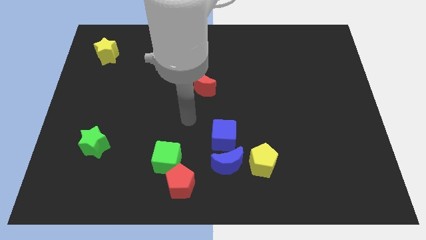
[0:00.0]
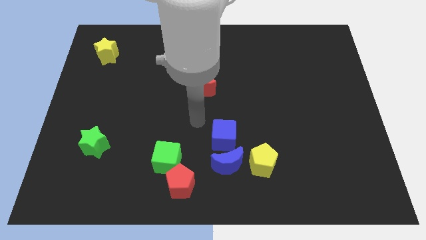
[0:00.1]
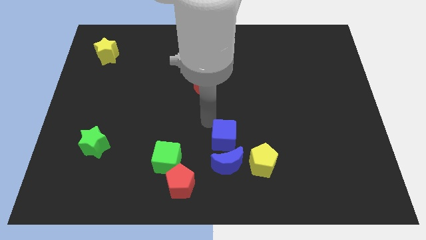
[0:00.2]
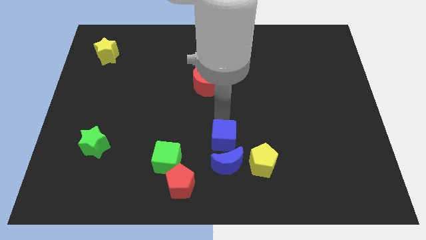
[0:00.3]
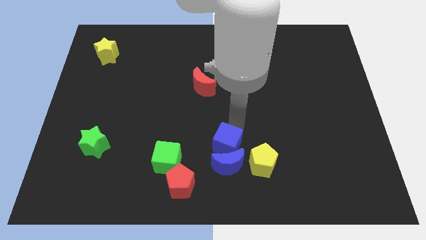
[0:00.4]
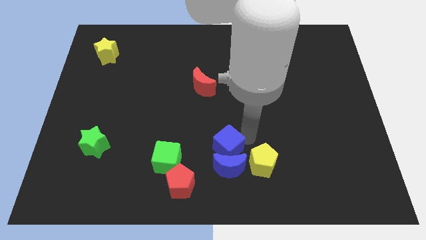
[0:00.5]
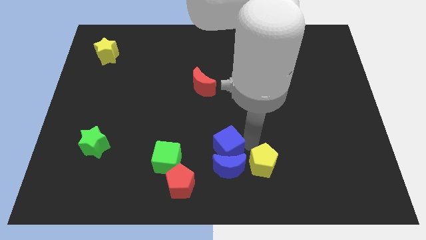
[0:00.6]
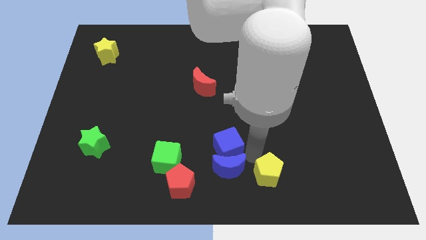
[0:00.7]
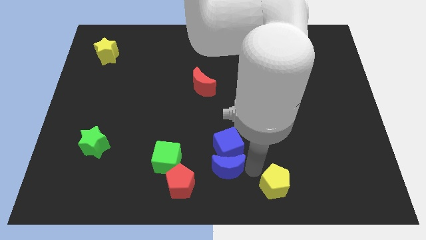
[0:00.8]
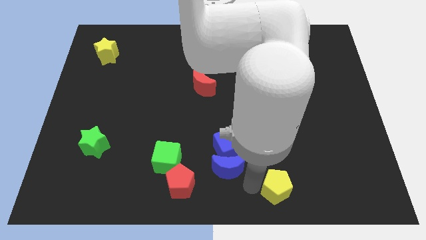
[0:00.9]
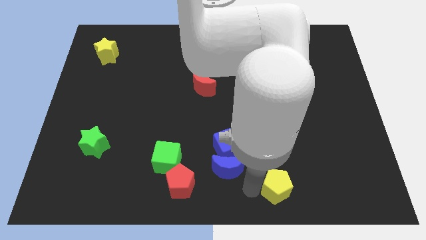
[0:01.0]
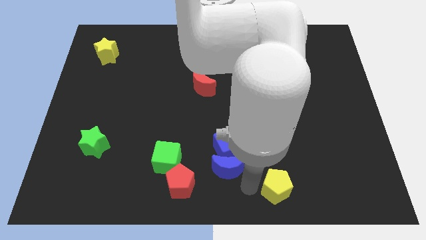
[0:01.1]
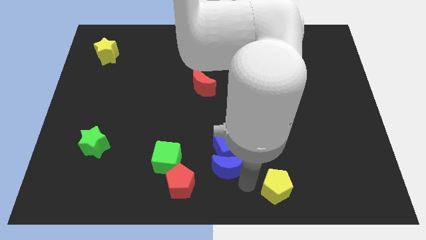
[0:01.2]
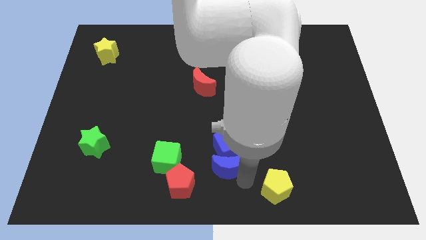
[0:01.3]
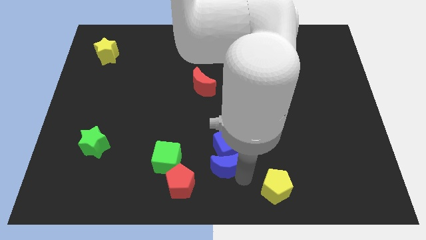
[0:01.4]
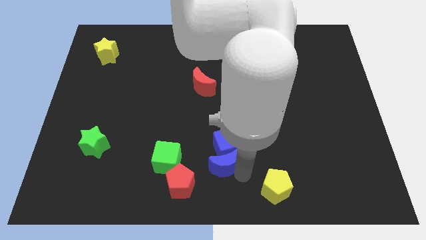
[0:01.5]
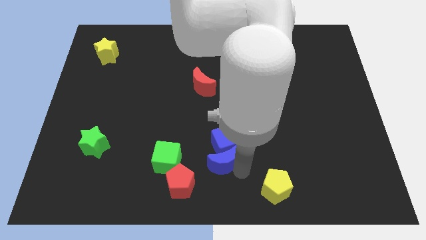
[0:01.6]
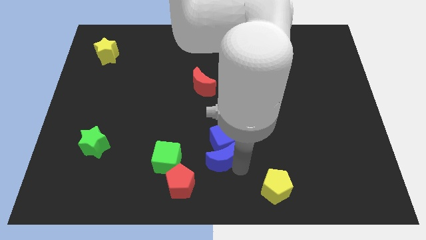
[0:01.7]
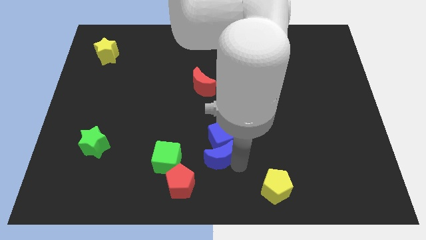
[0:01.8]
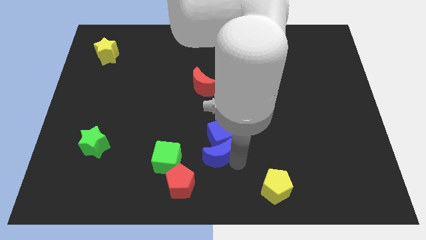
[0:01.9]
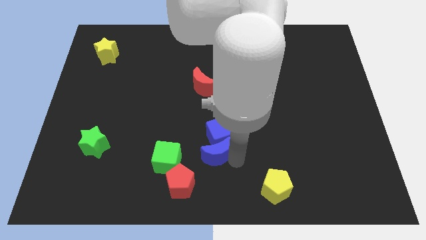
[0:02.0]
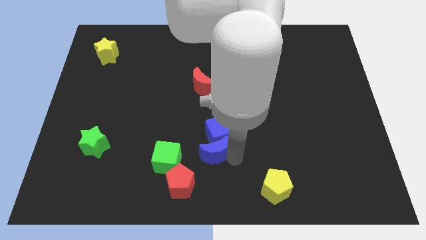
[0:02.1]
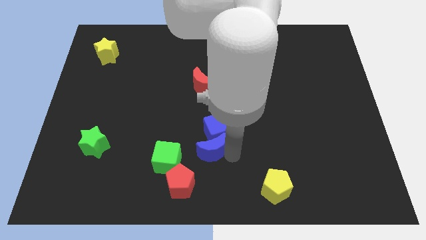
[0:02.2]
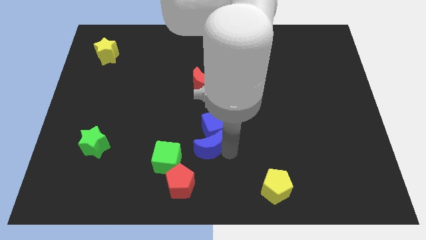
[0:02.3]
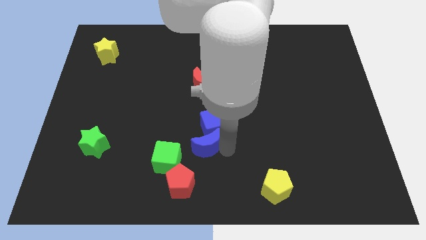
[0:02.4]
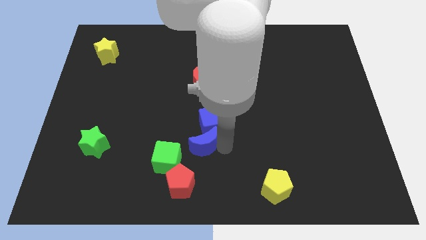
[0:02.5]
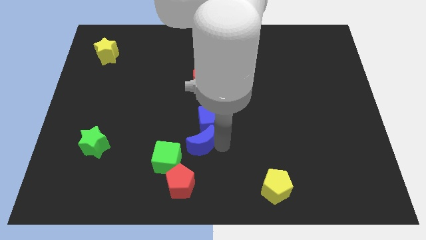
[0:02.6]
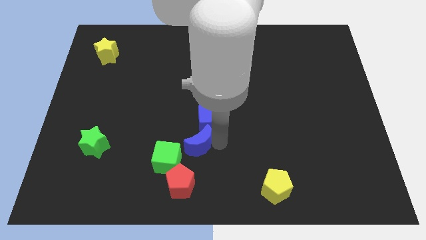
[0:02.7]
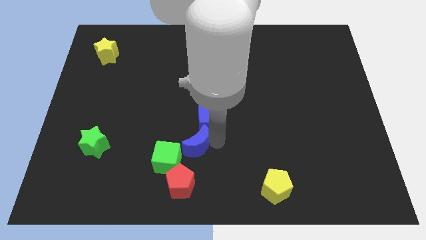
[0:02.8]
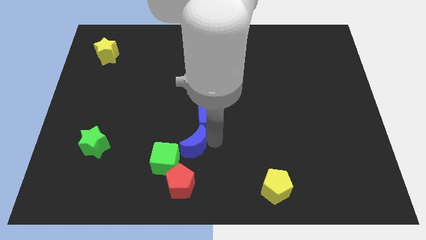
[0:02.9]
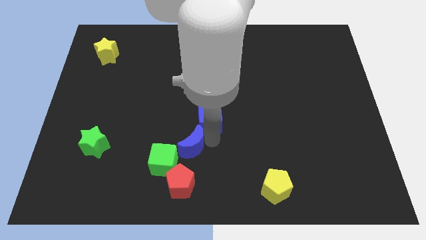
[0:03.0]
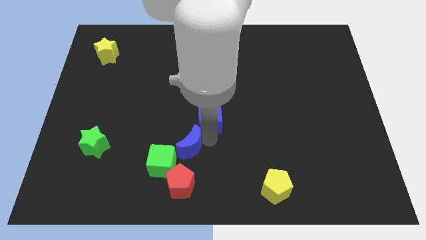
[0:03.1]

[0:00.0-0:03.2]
move the blue moon left a little

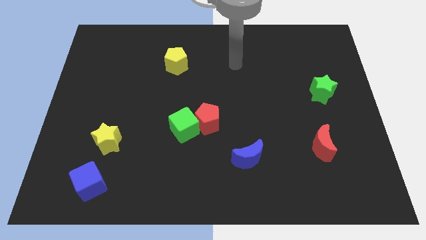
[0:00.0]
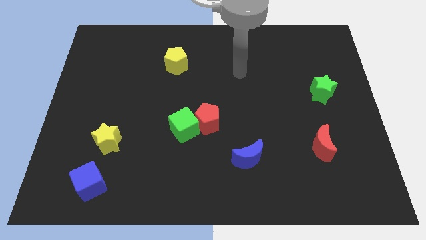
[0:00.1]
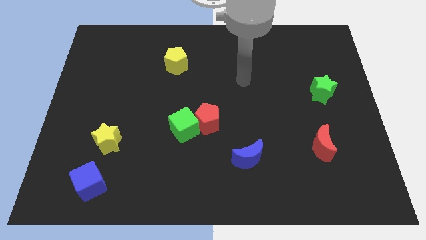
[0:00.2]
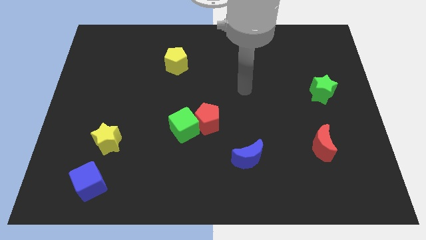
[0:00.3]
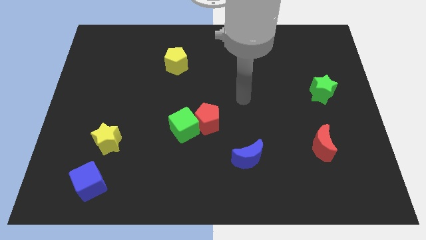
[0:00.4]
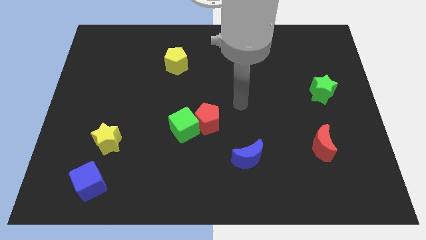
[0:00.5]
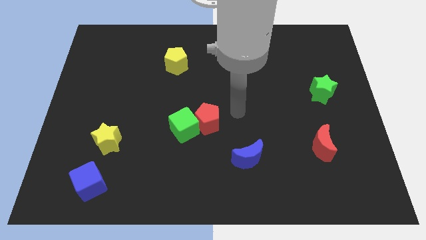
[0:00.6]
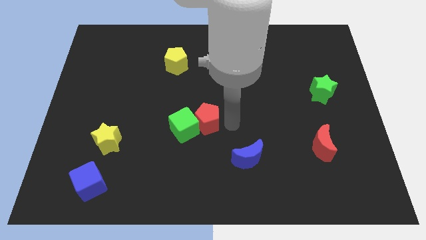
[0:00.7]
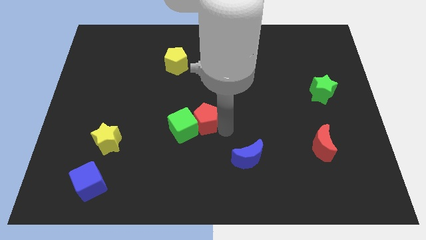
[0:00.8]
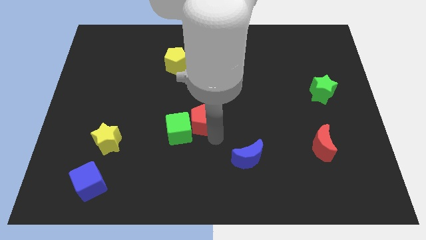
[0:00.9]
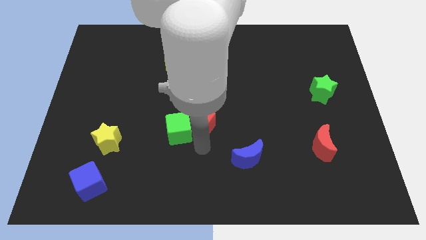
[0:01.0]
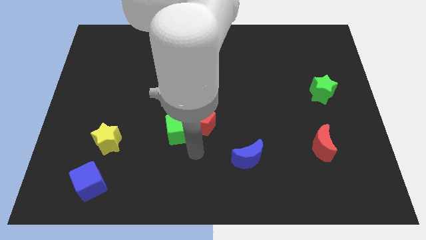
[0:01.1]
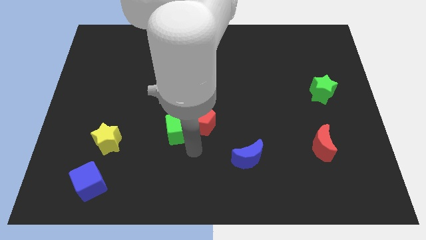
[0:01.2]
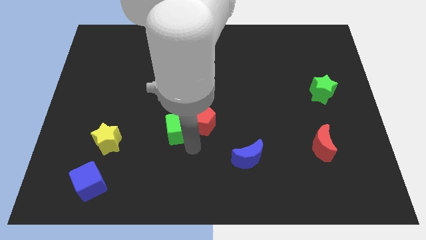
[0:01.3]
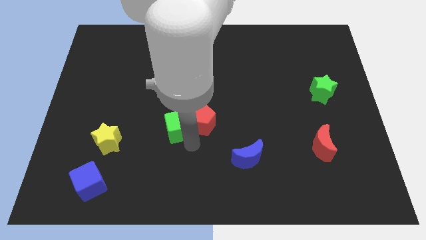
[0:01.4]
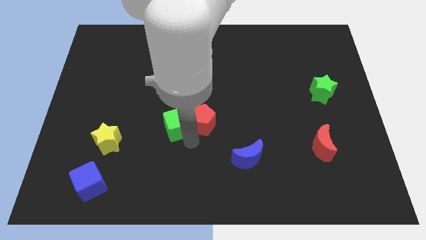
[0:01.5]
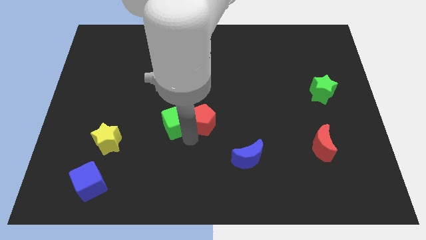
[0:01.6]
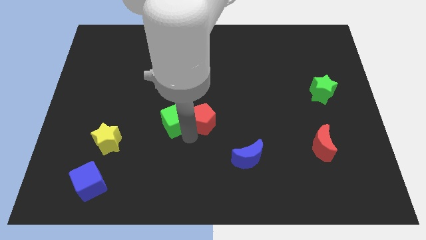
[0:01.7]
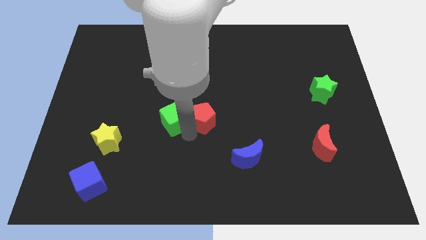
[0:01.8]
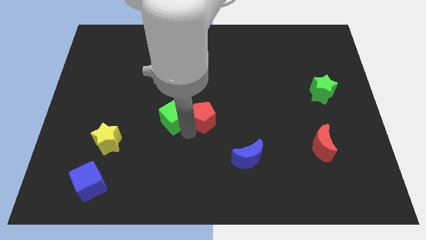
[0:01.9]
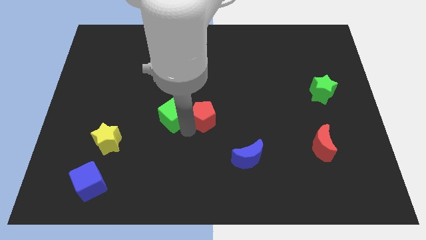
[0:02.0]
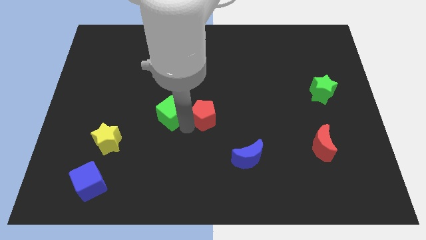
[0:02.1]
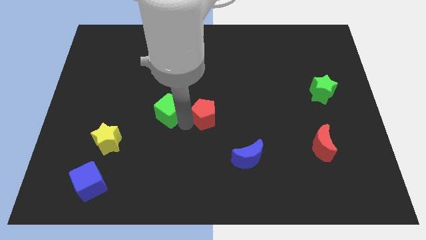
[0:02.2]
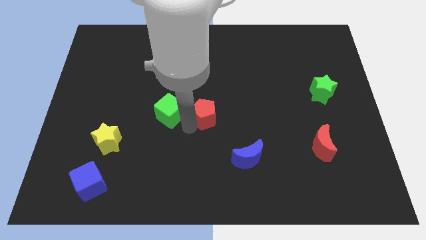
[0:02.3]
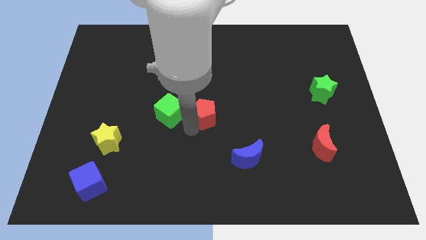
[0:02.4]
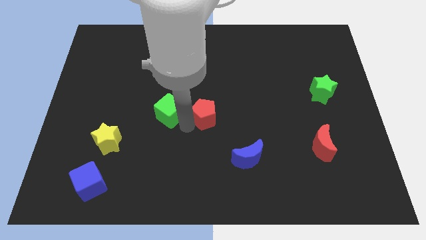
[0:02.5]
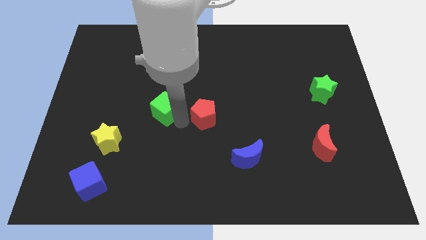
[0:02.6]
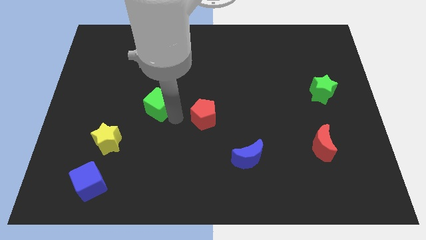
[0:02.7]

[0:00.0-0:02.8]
slide the green cube a little bit diagonally upwards and left

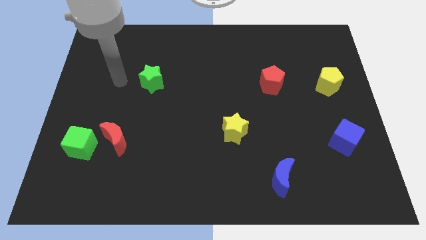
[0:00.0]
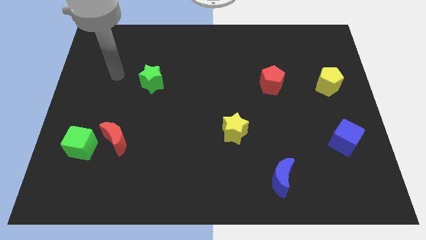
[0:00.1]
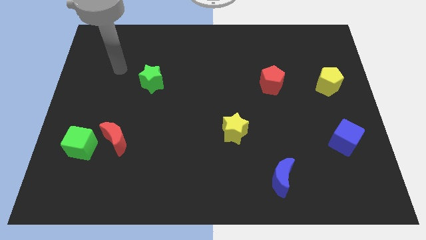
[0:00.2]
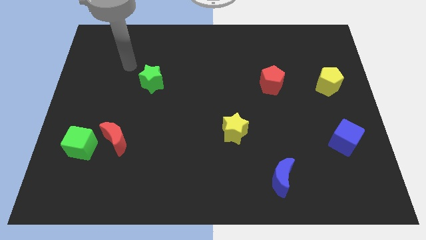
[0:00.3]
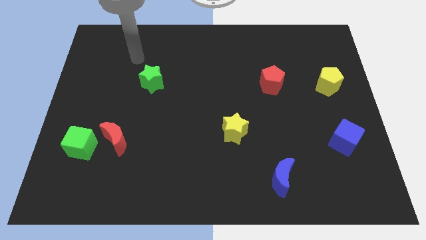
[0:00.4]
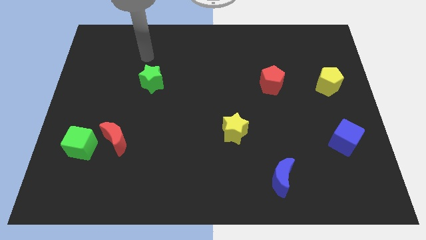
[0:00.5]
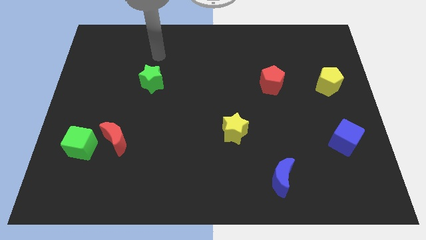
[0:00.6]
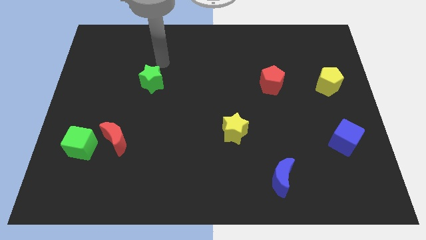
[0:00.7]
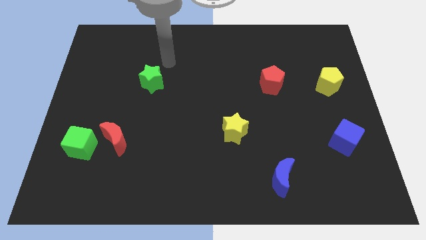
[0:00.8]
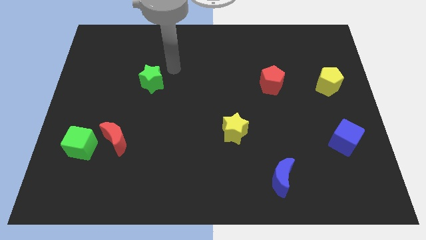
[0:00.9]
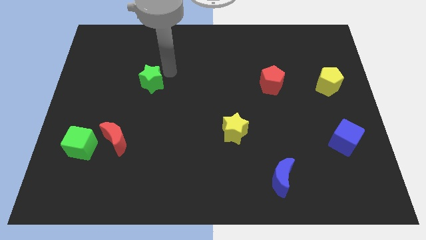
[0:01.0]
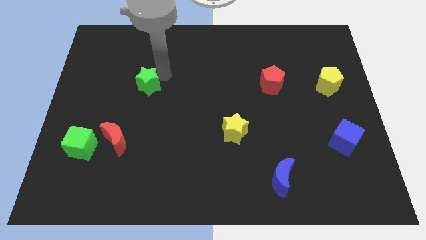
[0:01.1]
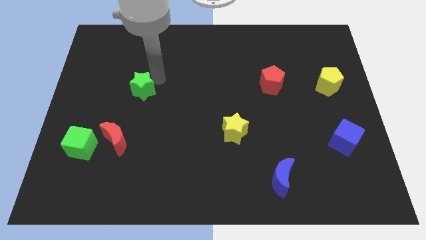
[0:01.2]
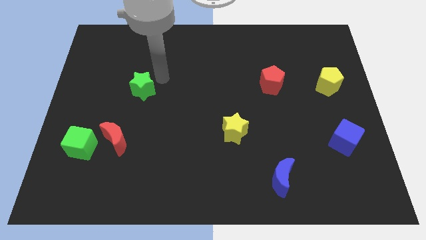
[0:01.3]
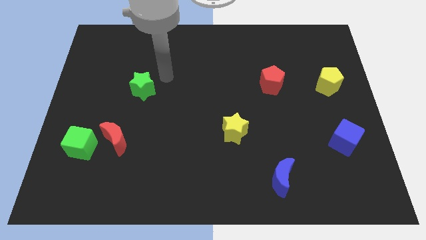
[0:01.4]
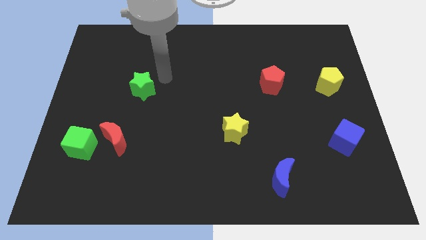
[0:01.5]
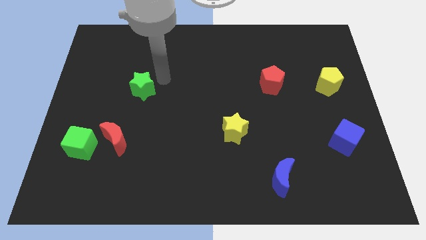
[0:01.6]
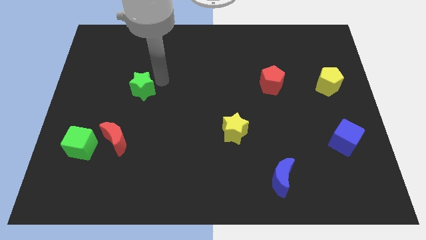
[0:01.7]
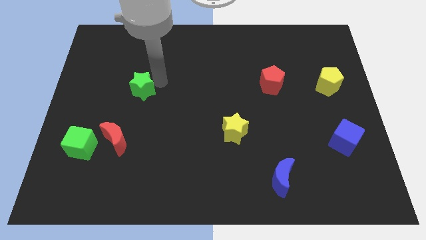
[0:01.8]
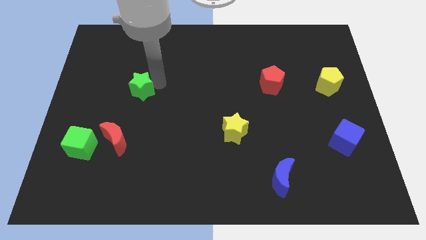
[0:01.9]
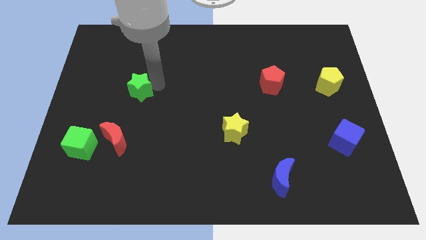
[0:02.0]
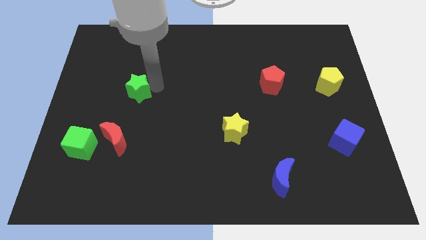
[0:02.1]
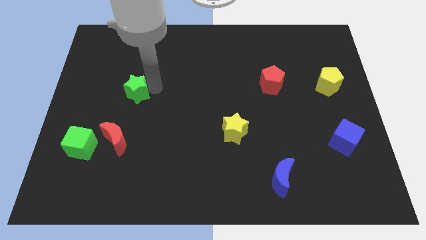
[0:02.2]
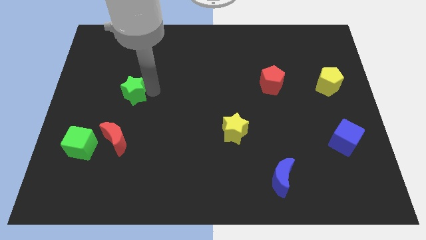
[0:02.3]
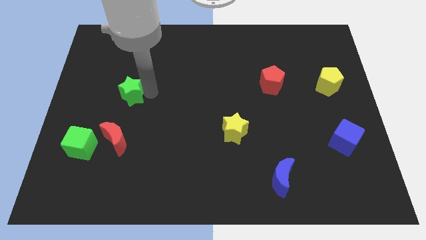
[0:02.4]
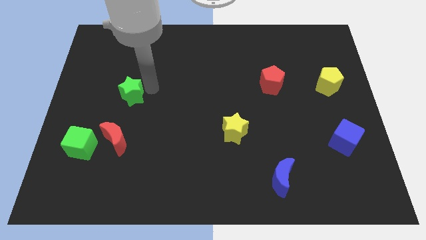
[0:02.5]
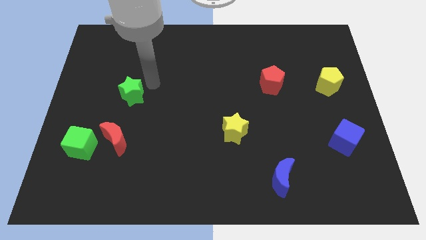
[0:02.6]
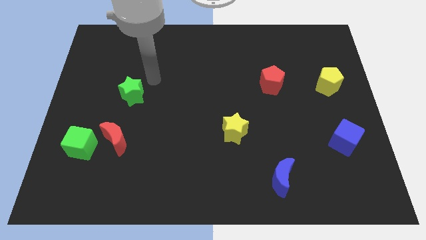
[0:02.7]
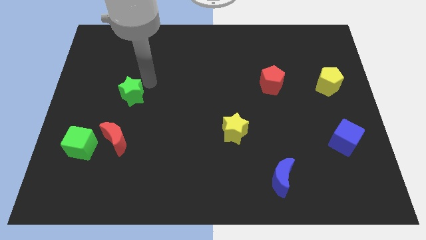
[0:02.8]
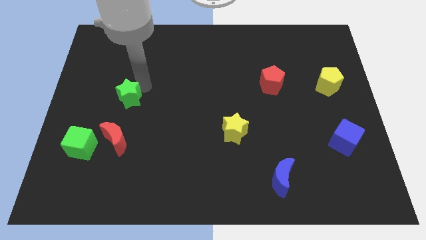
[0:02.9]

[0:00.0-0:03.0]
push the green star a little bit downwards and left diagonally
